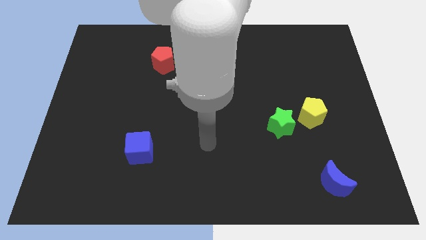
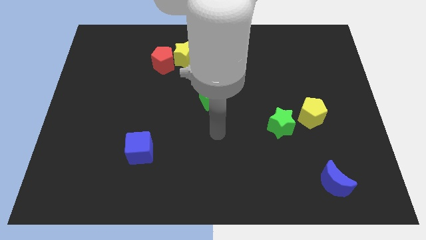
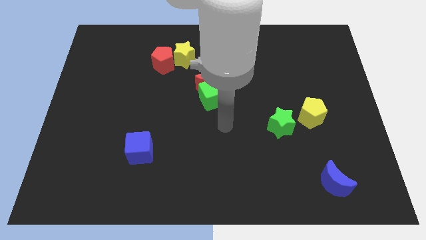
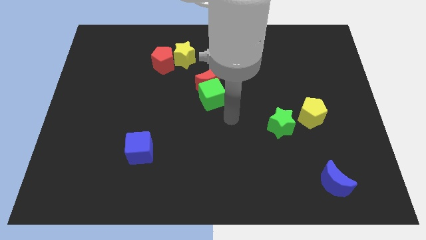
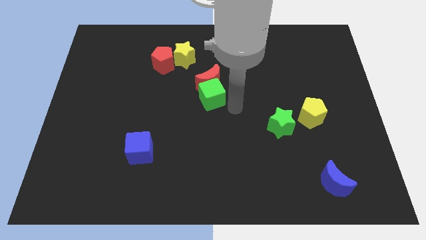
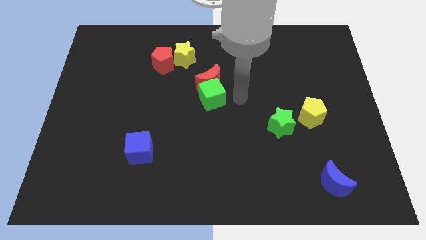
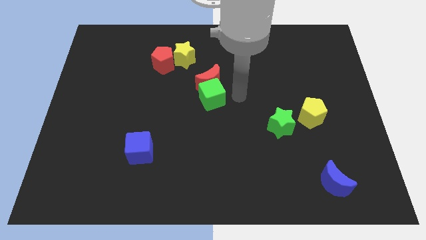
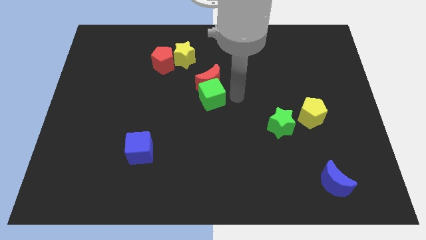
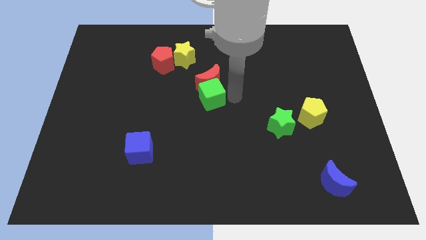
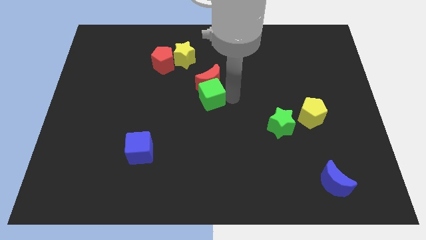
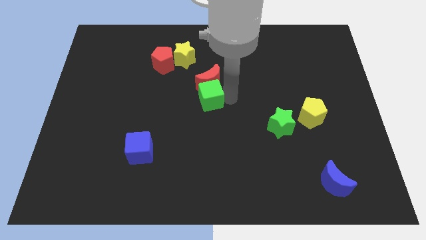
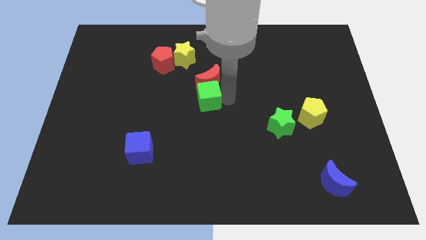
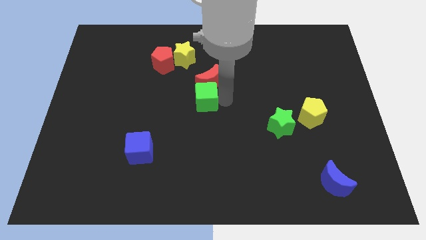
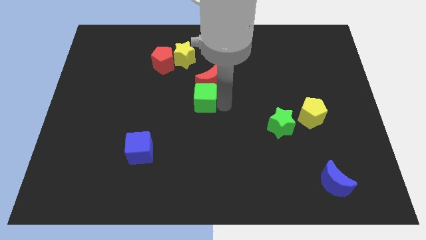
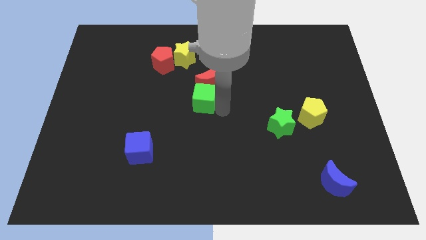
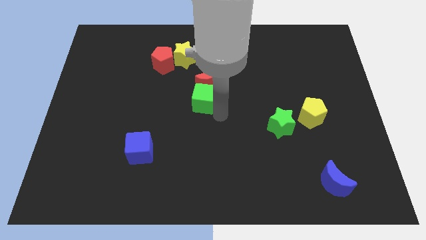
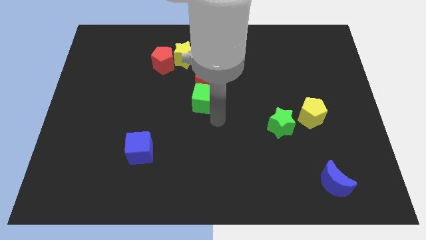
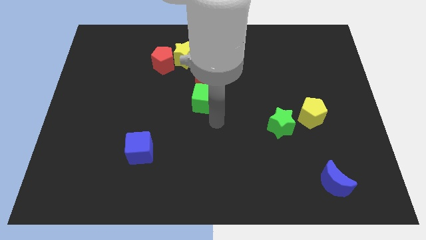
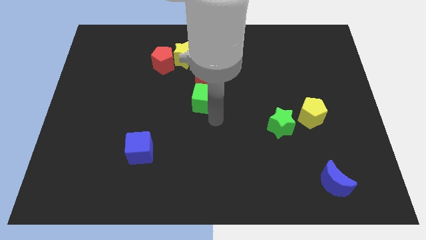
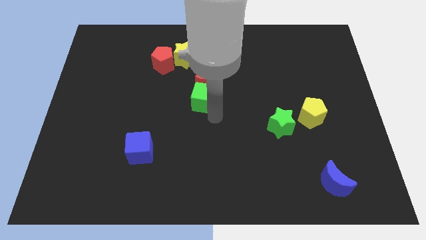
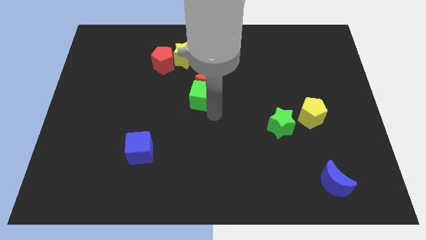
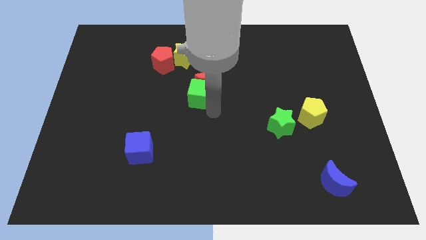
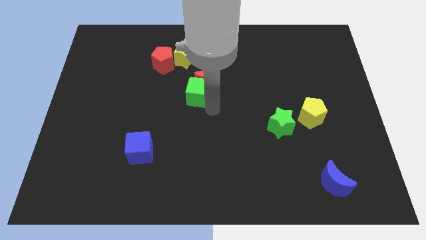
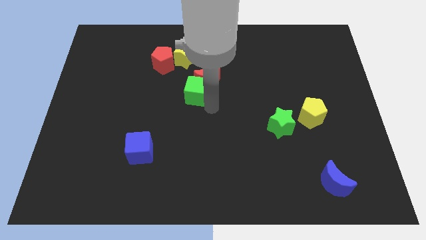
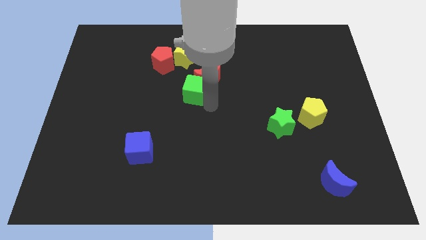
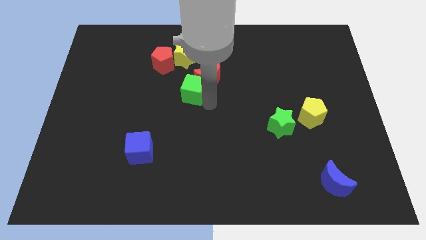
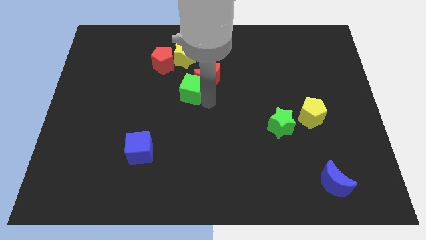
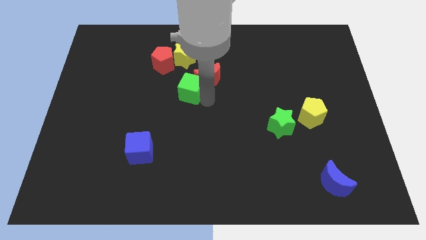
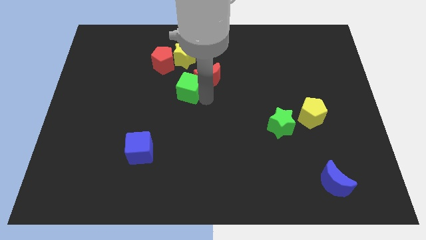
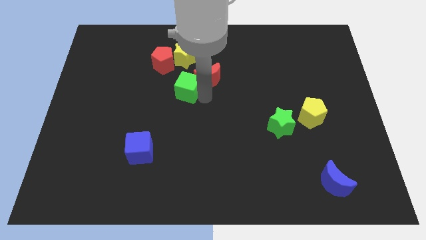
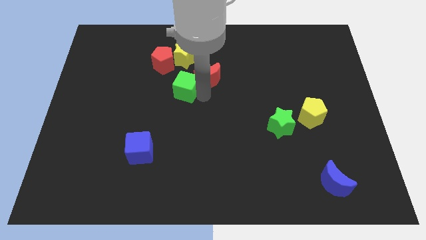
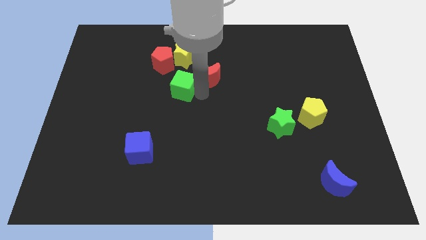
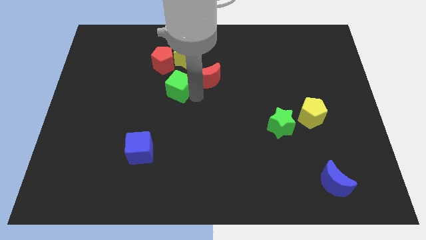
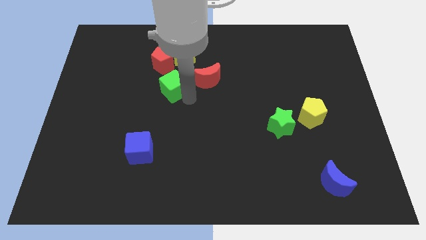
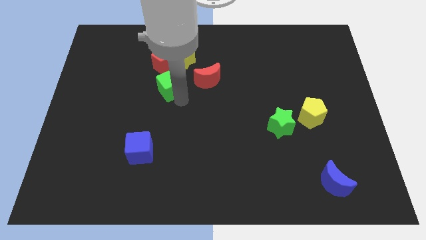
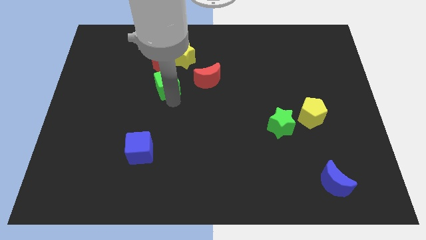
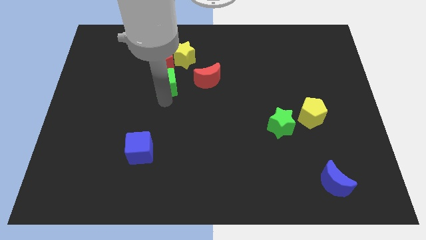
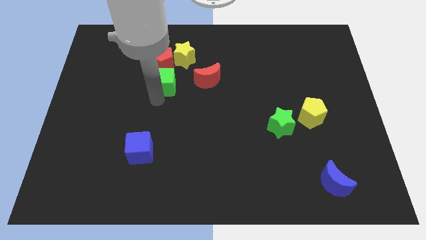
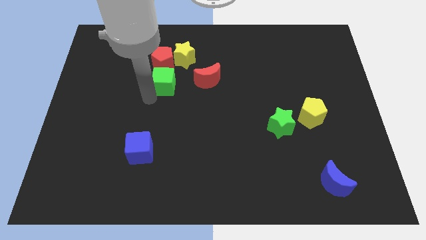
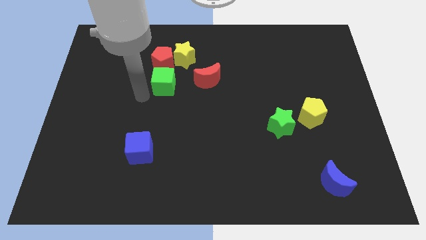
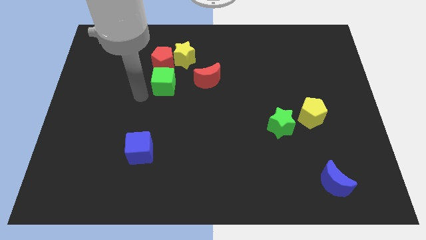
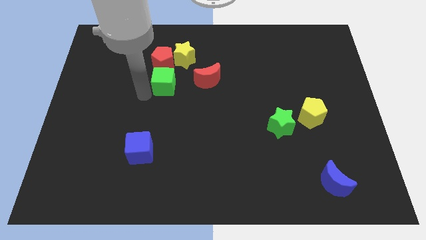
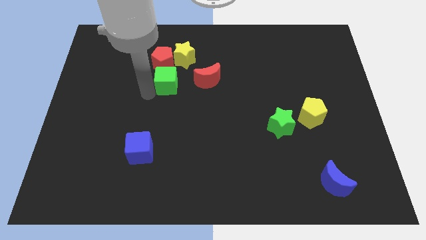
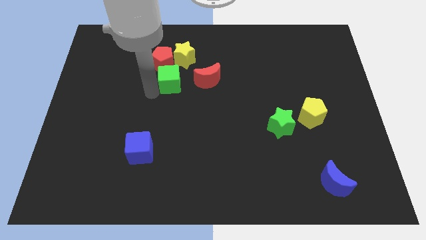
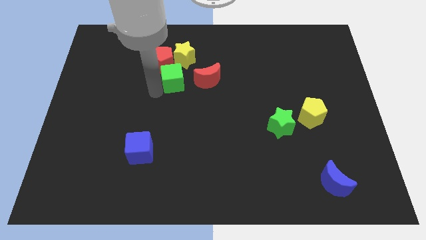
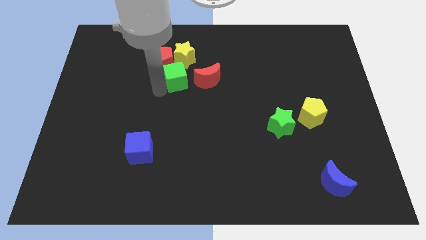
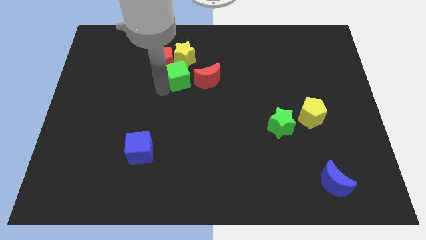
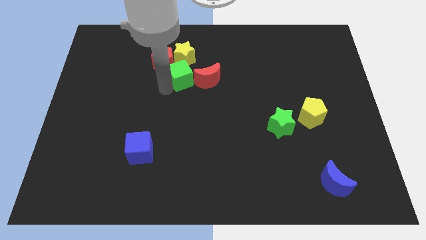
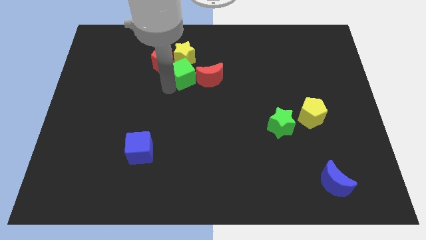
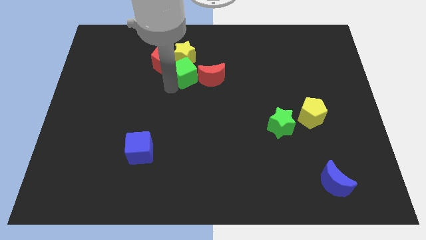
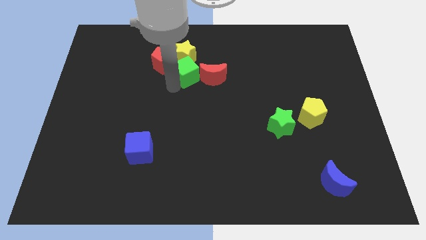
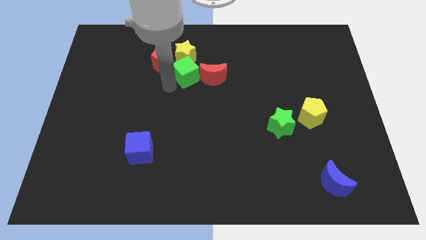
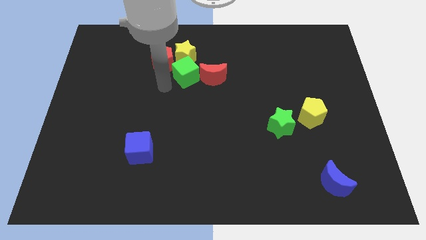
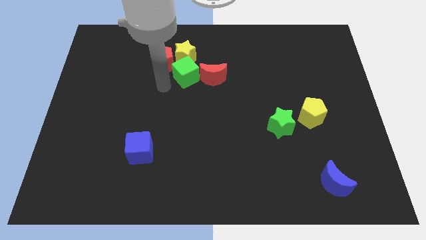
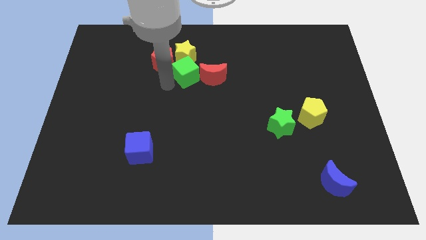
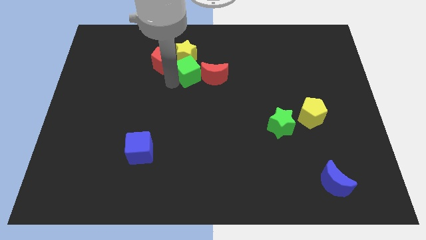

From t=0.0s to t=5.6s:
put the green cube to the yellow star

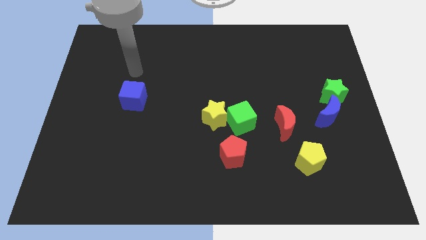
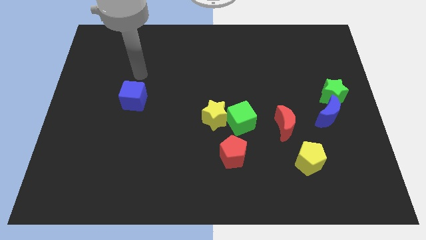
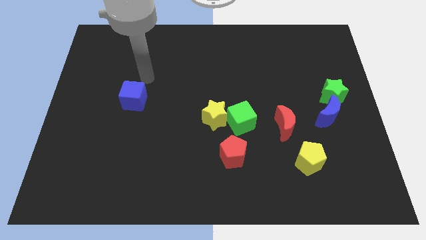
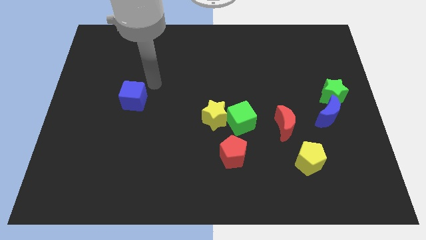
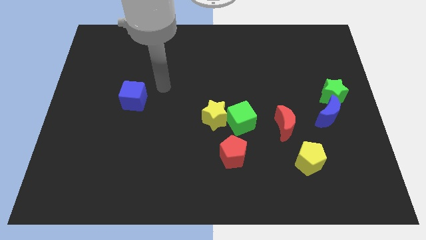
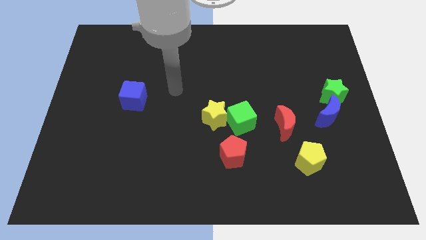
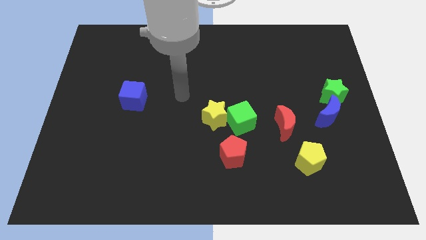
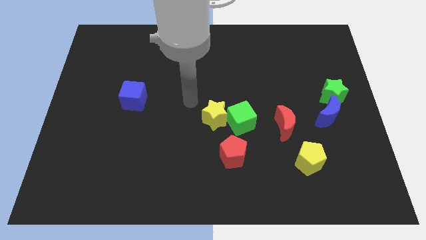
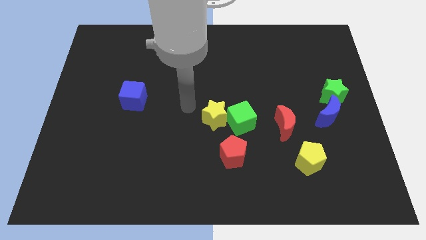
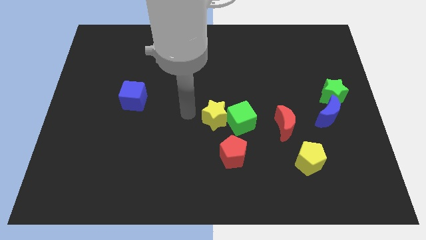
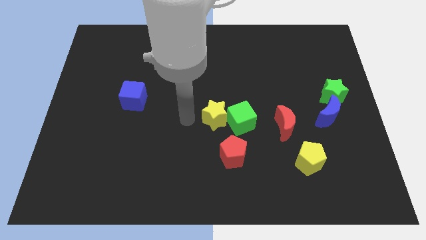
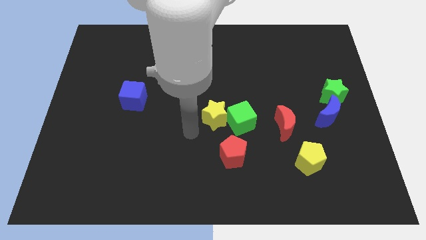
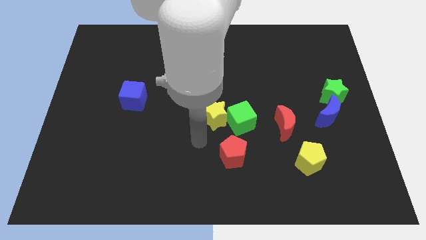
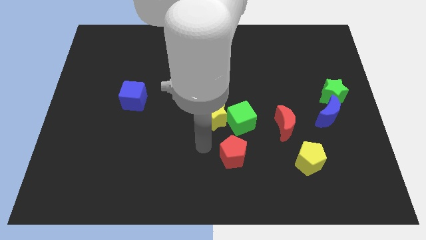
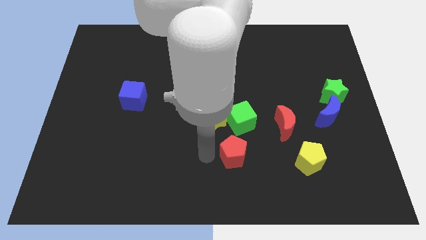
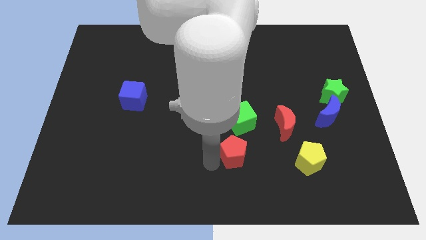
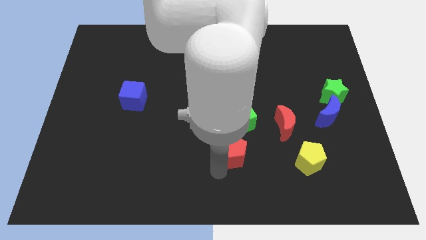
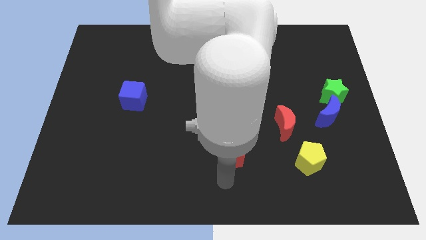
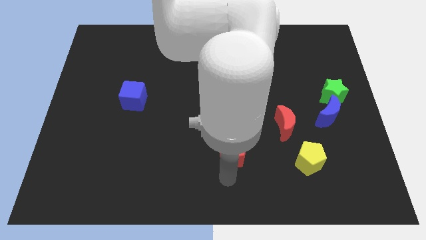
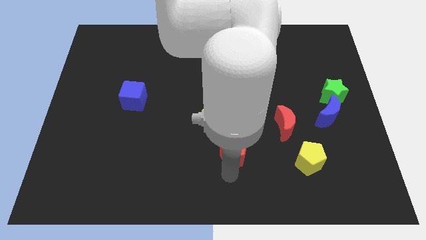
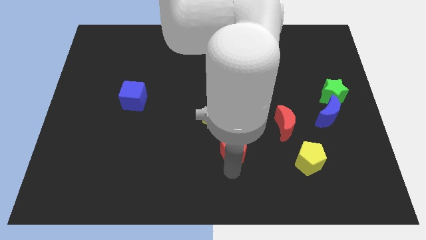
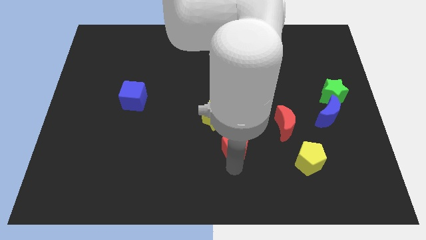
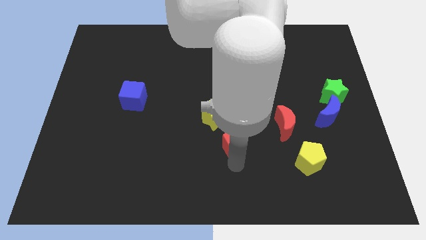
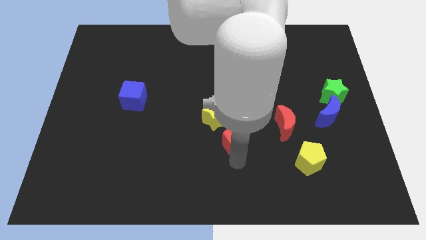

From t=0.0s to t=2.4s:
move the red pentagon next to the green cube
